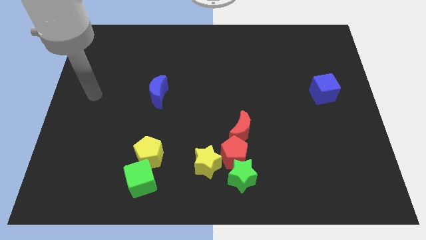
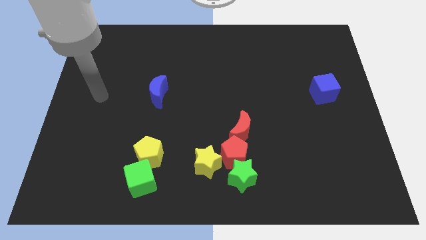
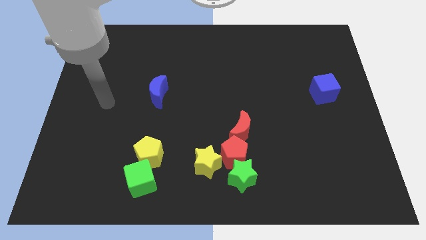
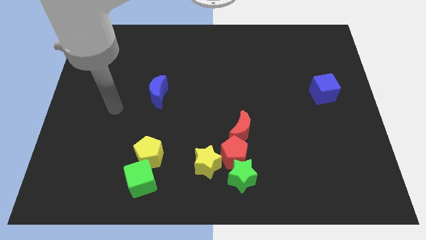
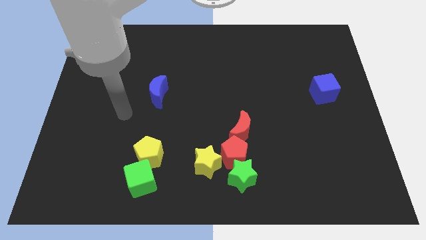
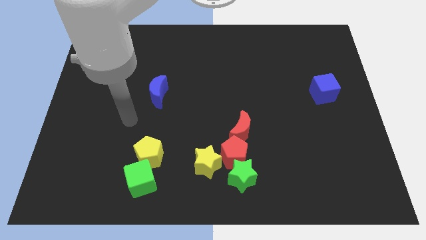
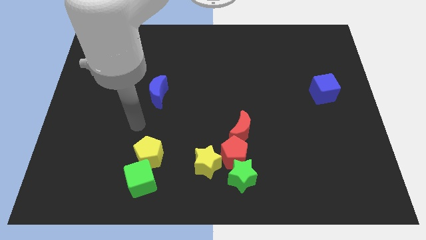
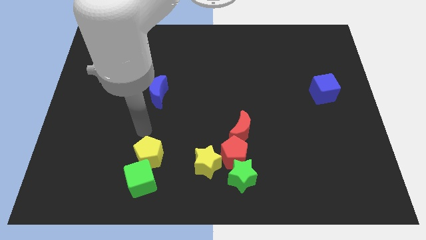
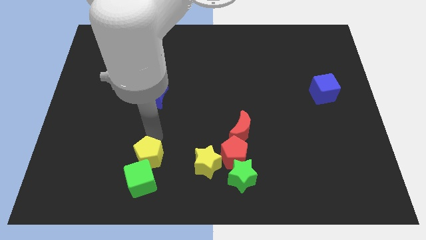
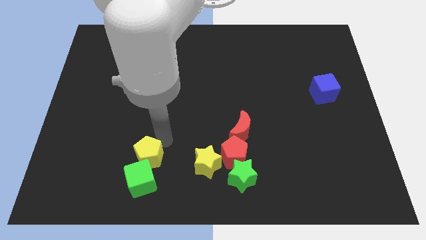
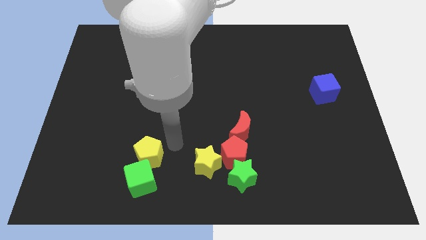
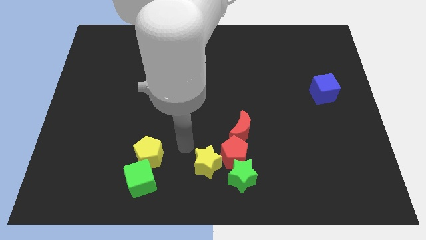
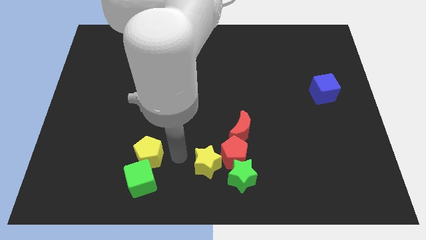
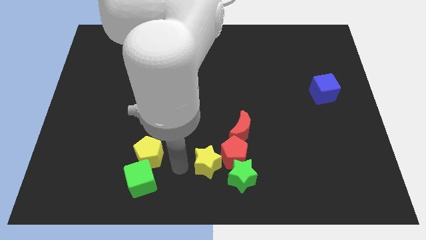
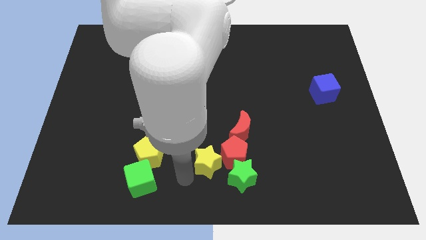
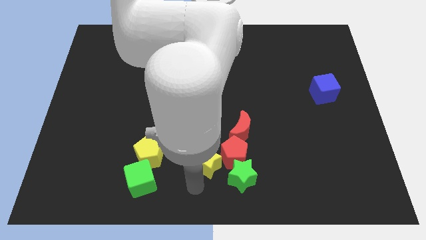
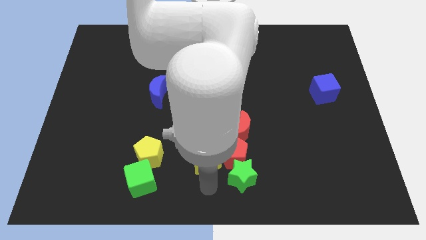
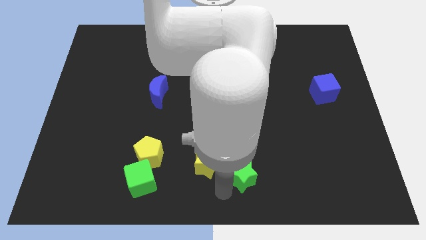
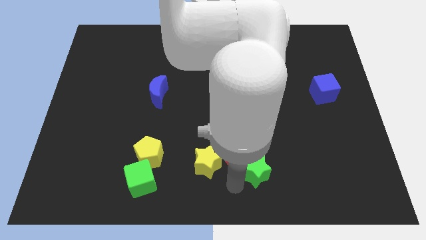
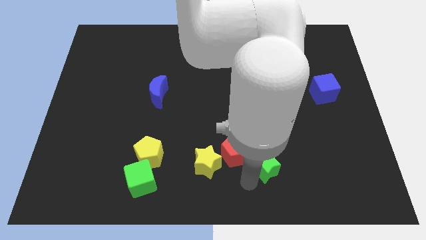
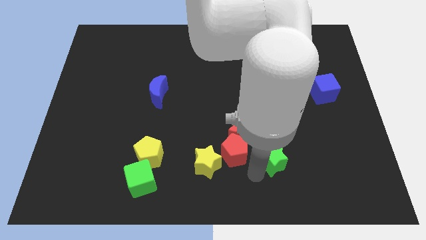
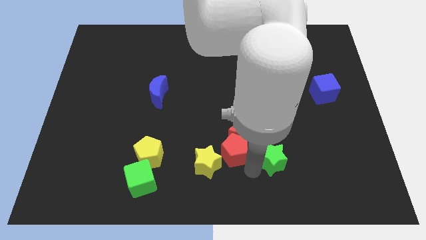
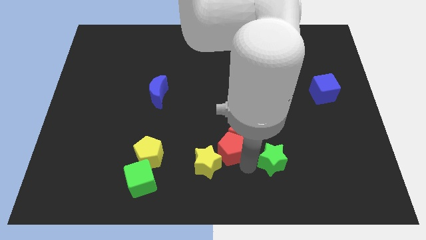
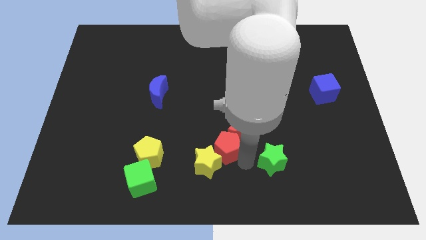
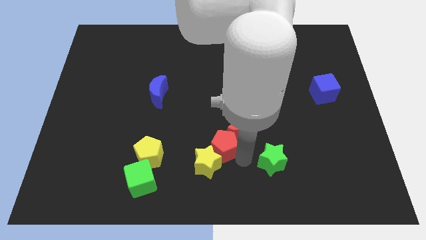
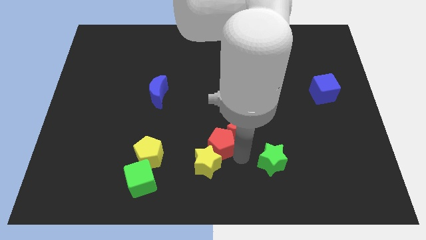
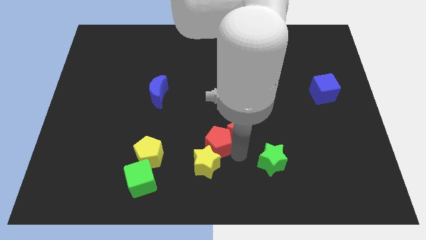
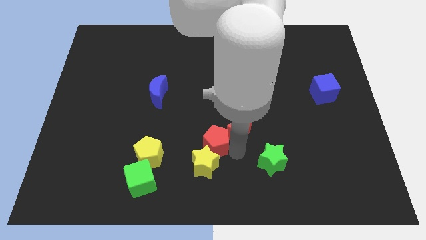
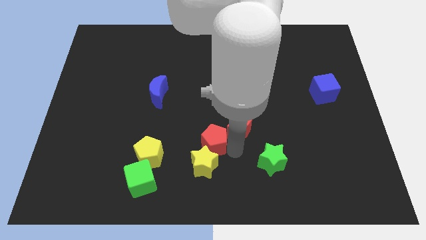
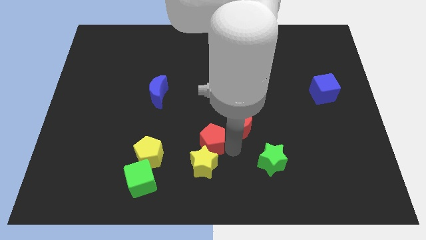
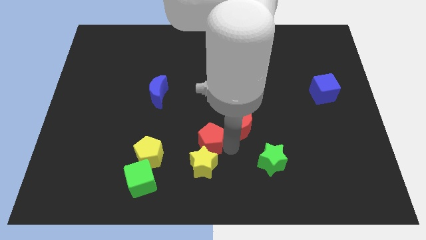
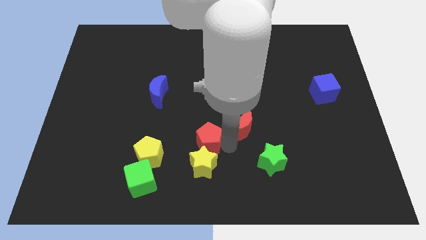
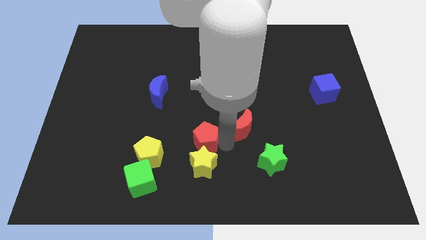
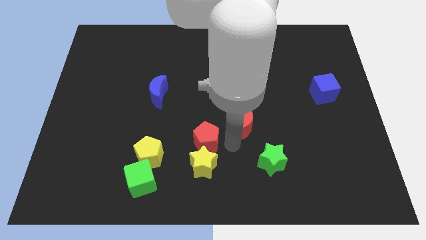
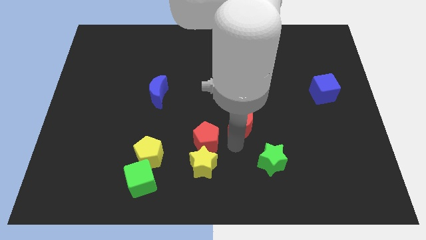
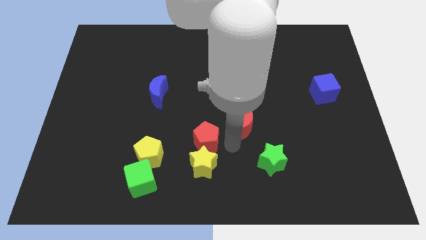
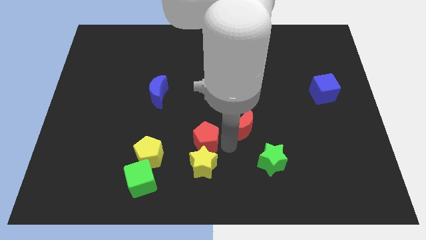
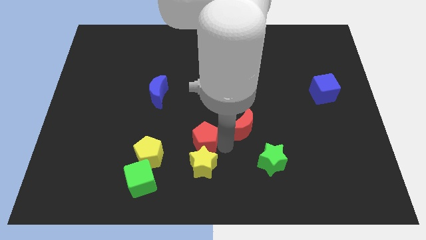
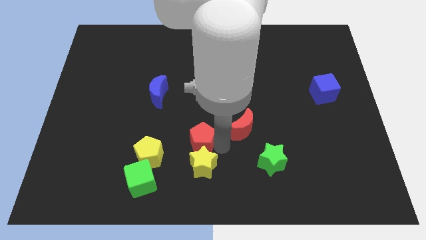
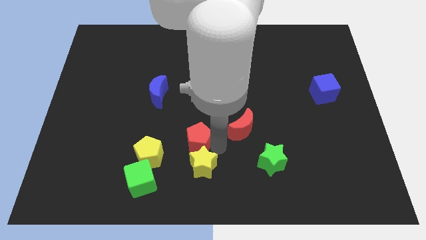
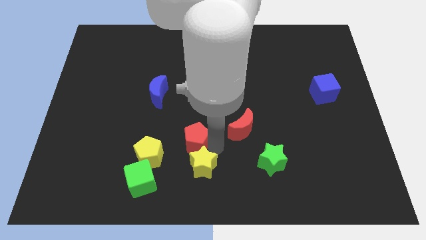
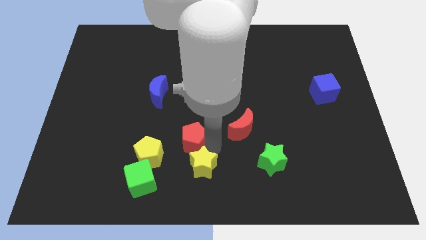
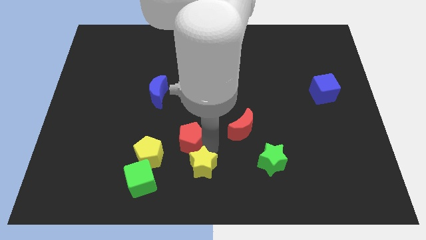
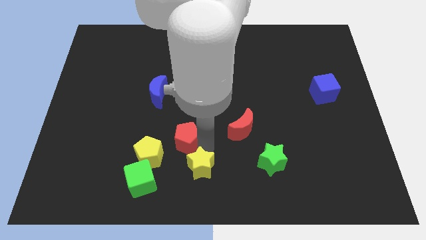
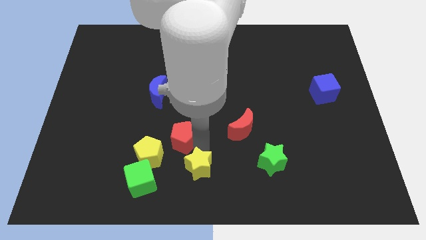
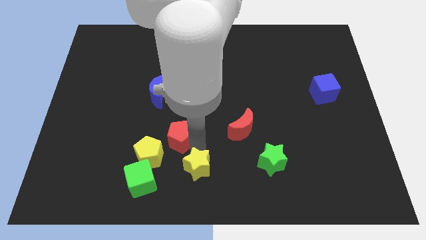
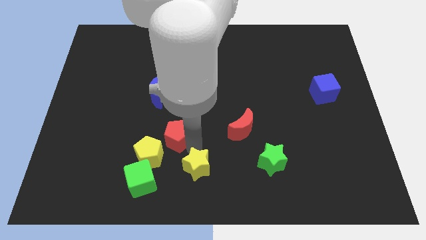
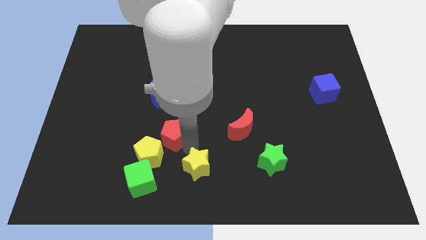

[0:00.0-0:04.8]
move the red pentagon to the bottom side of the blue moon

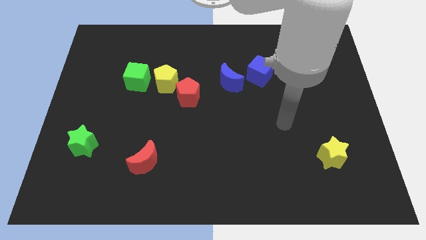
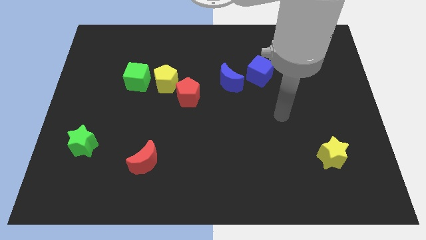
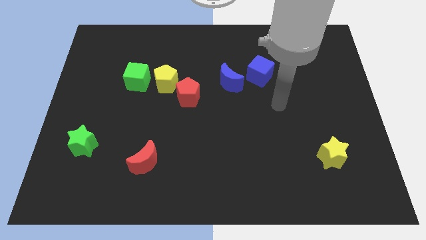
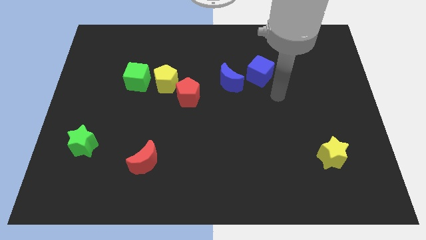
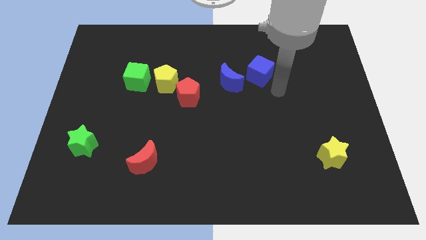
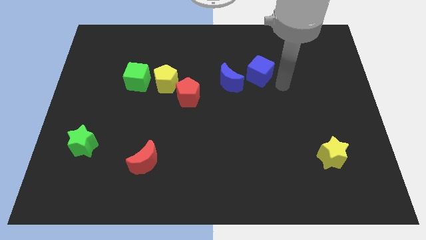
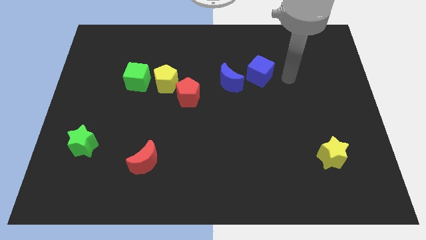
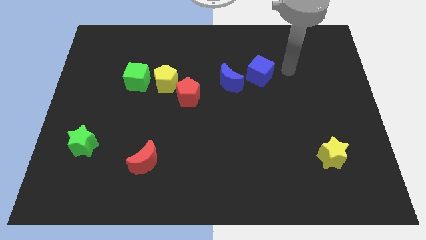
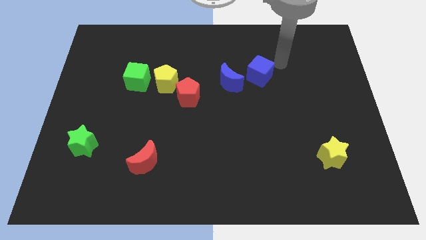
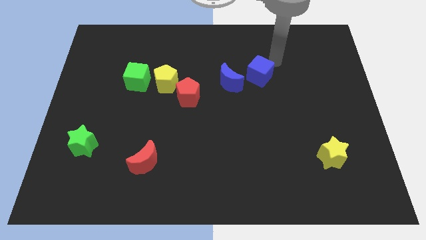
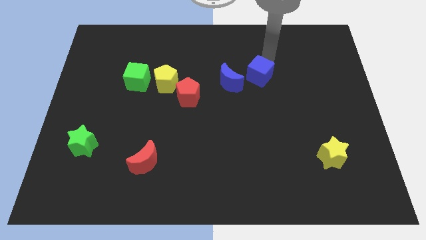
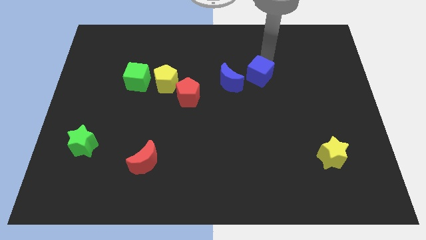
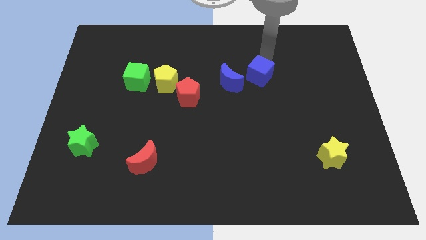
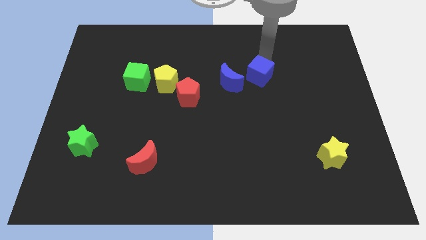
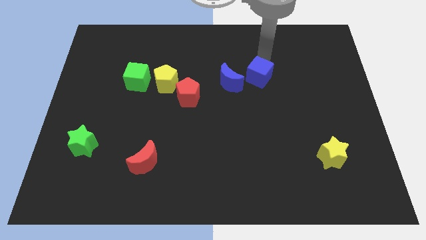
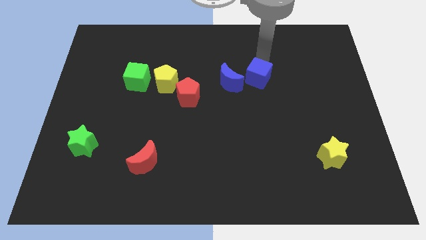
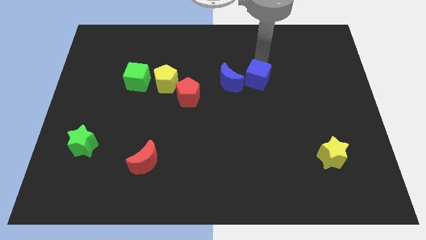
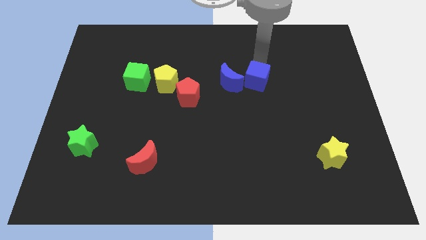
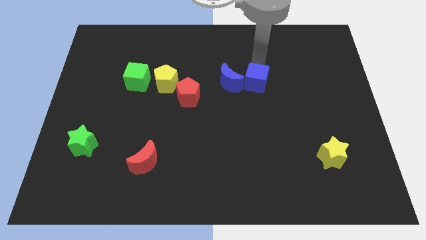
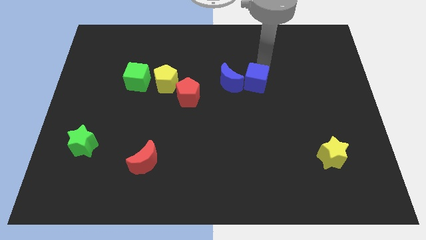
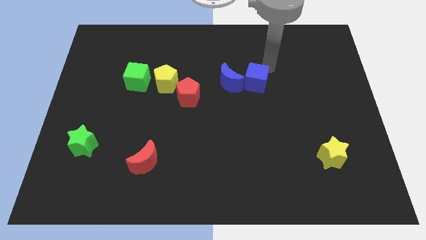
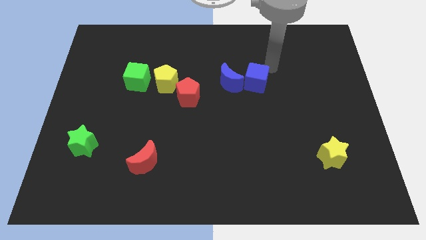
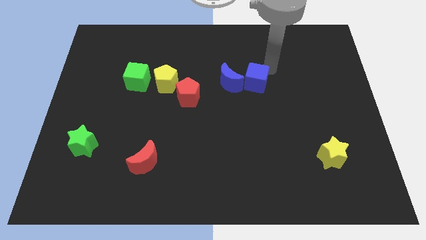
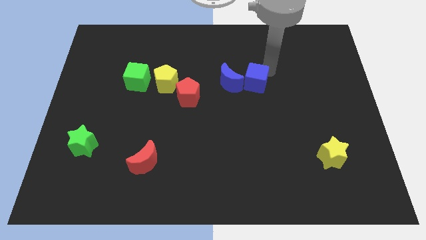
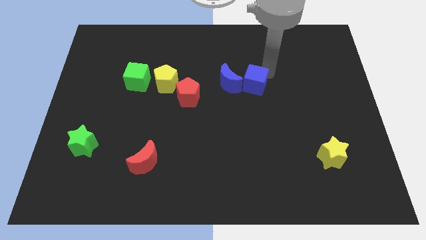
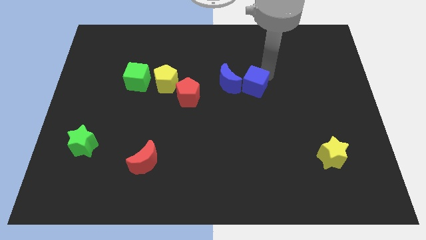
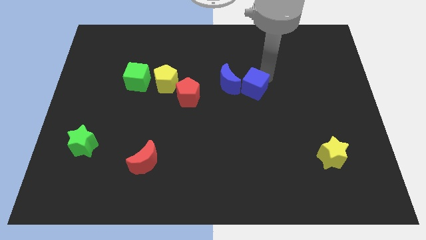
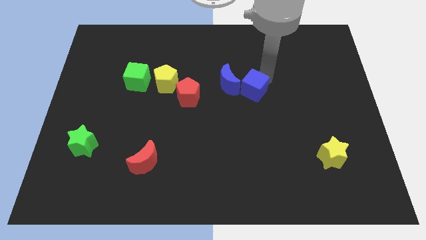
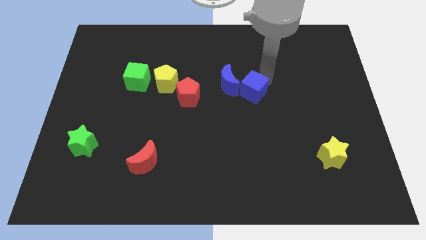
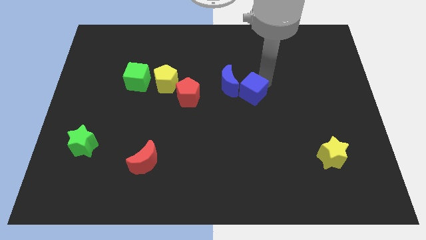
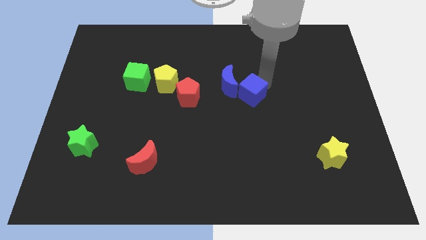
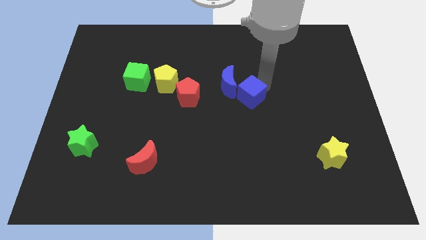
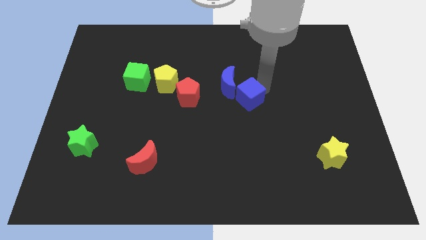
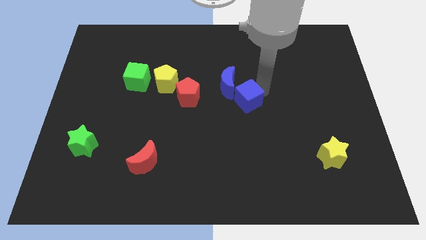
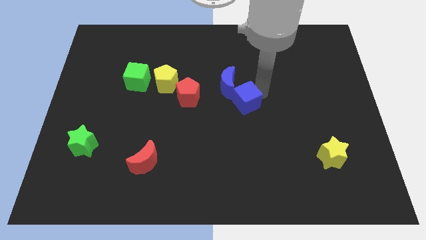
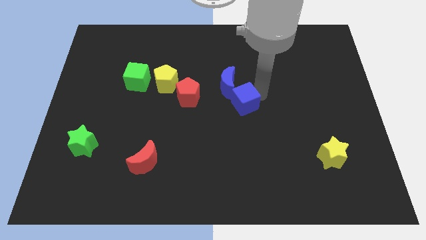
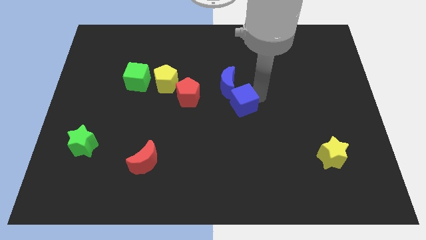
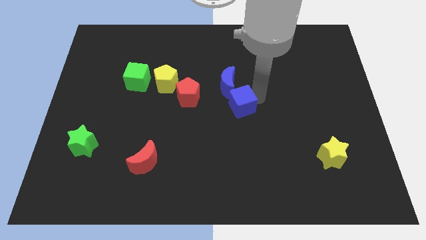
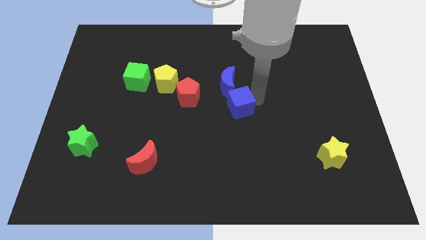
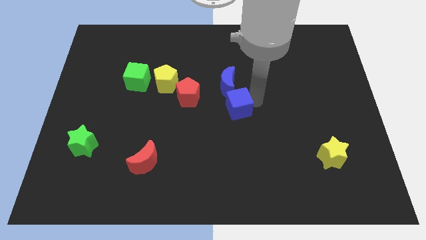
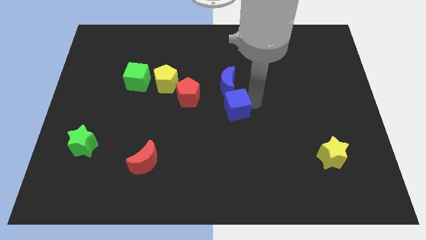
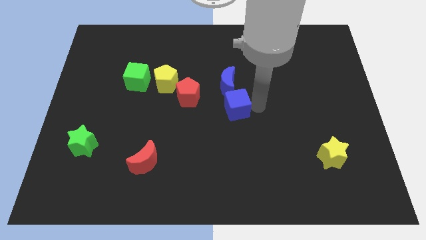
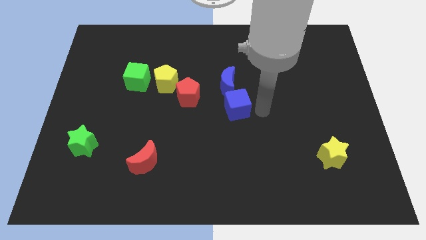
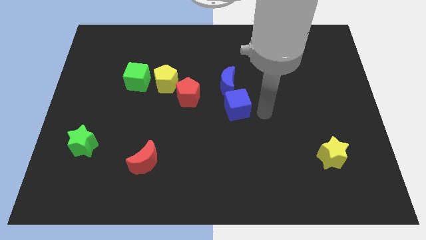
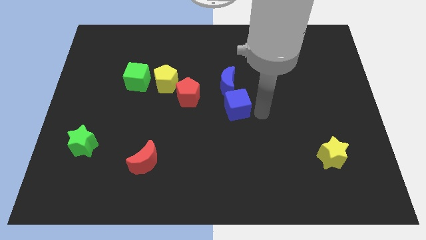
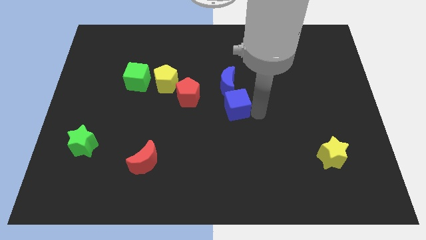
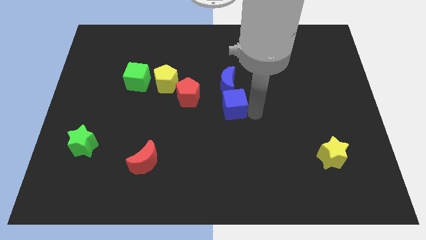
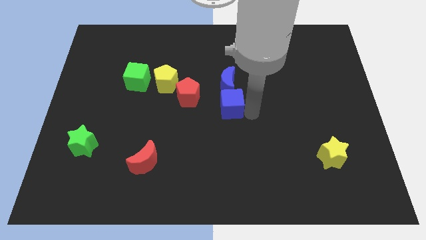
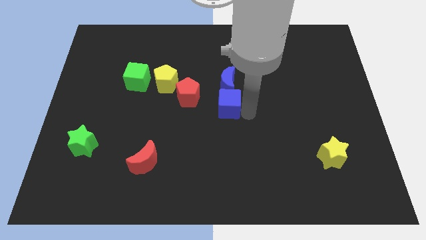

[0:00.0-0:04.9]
slide the blue cube diagonally down and to the left of the blue moon
